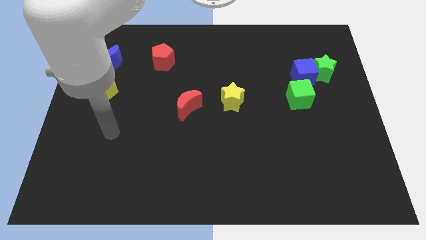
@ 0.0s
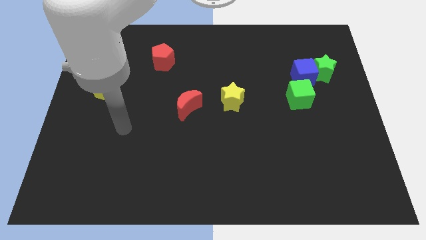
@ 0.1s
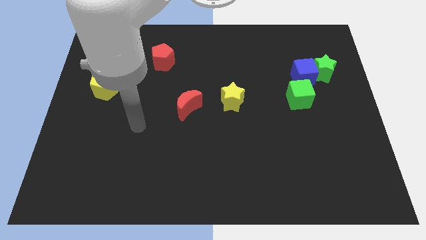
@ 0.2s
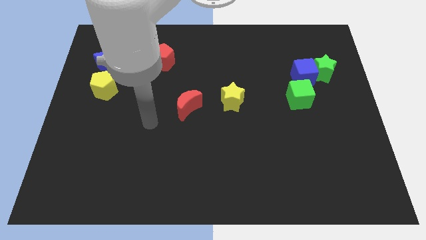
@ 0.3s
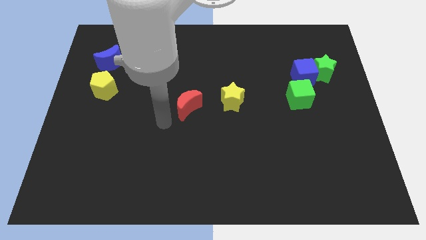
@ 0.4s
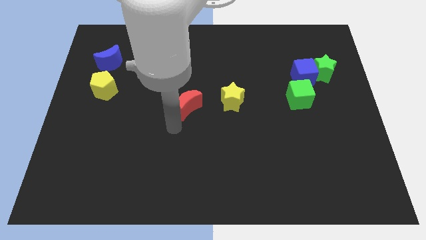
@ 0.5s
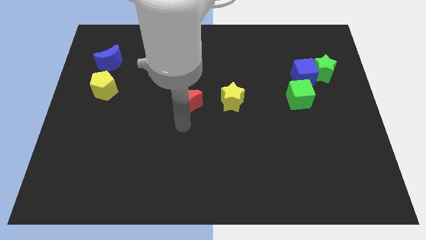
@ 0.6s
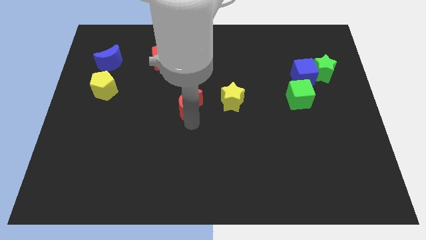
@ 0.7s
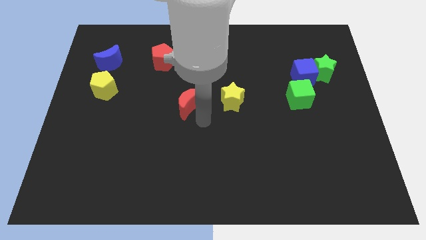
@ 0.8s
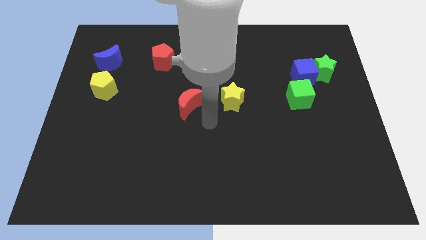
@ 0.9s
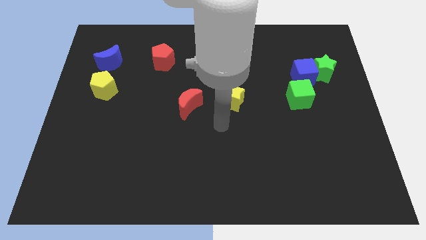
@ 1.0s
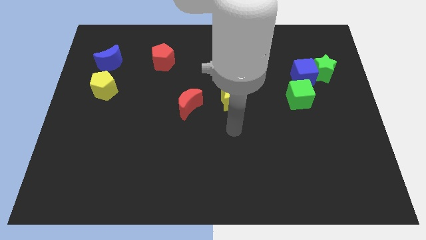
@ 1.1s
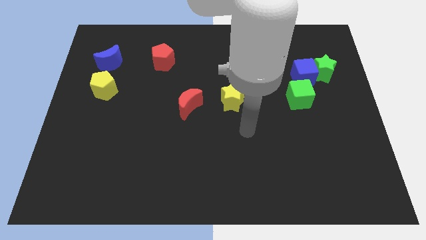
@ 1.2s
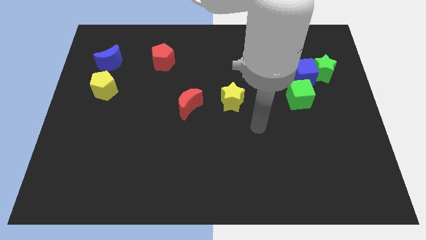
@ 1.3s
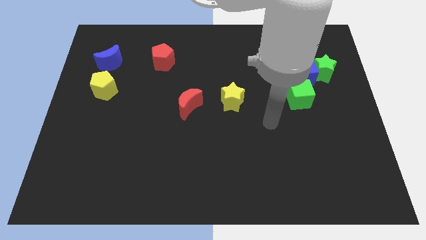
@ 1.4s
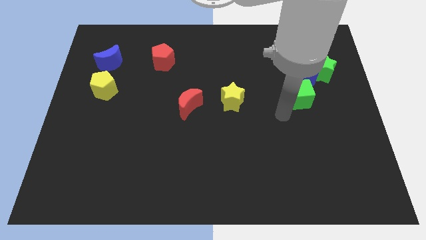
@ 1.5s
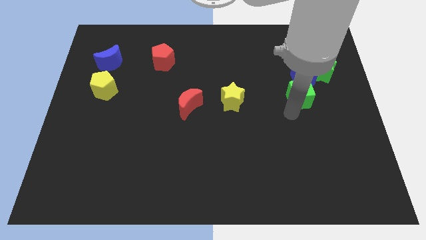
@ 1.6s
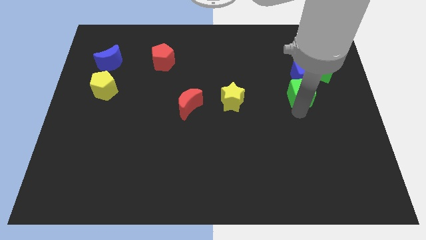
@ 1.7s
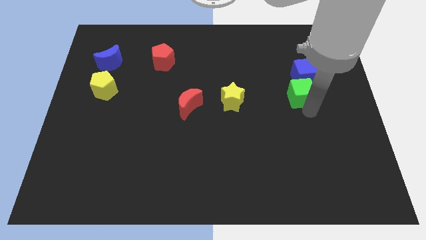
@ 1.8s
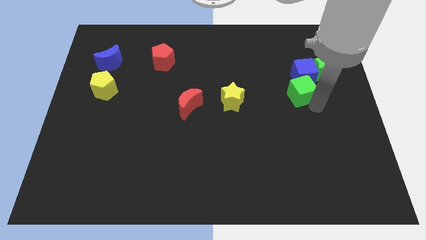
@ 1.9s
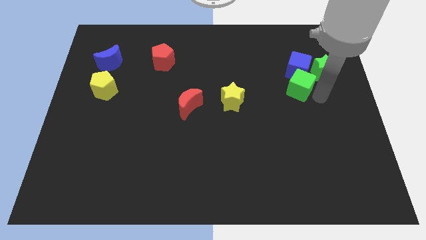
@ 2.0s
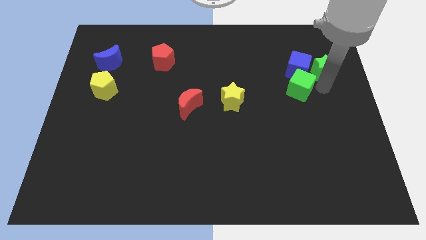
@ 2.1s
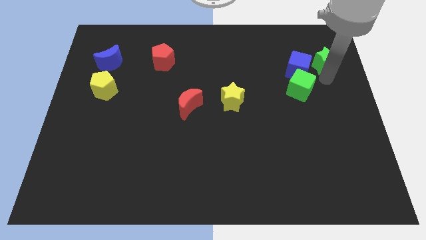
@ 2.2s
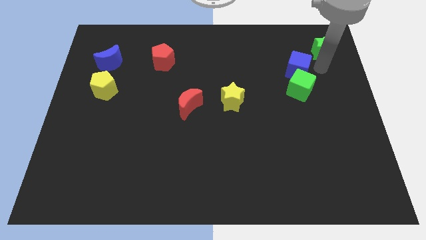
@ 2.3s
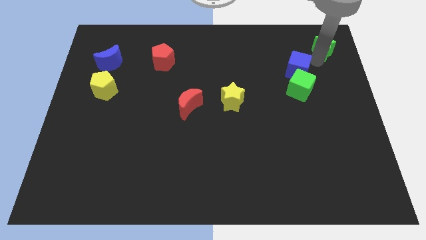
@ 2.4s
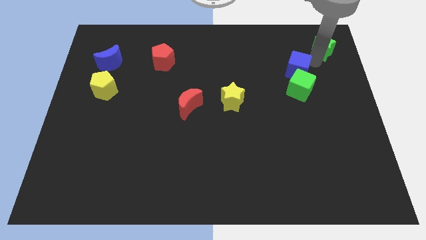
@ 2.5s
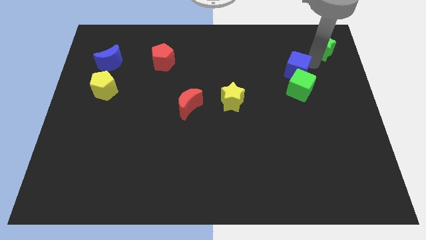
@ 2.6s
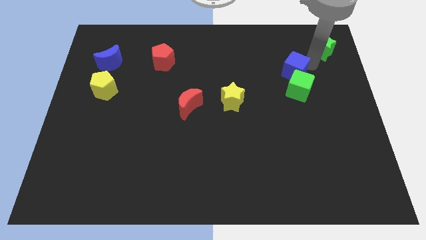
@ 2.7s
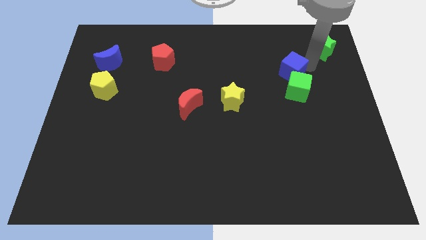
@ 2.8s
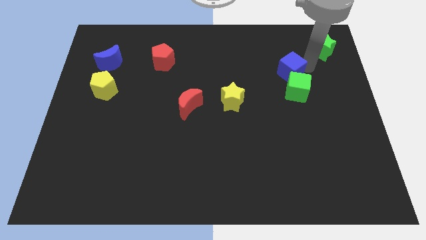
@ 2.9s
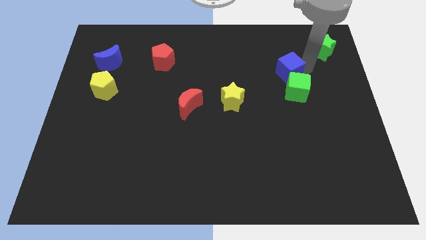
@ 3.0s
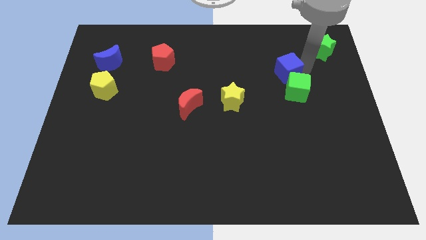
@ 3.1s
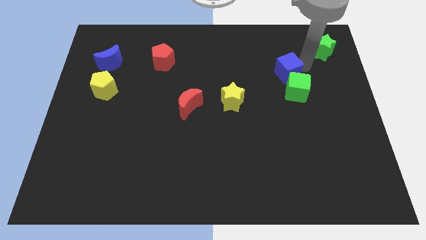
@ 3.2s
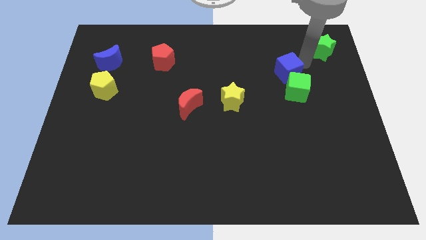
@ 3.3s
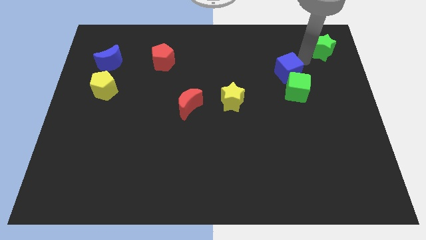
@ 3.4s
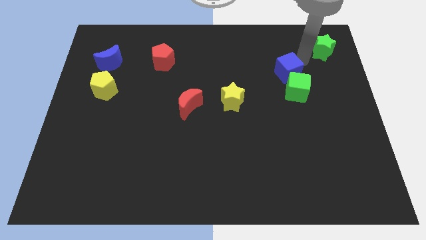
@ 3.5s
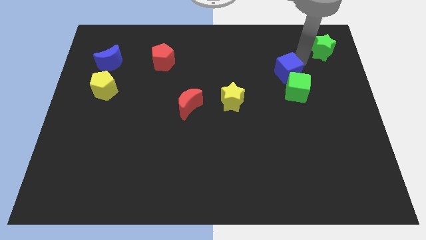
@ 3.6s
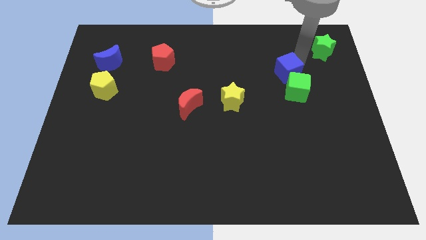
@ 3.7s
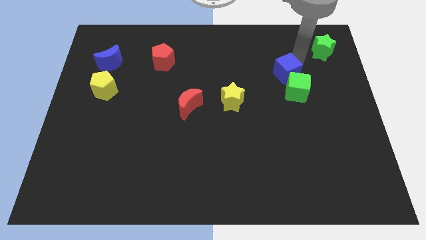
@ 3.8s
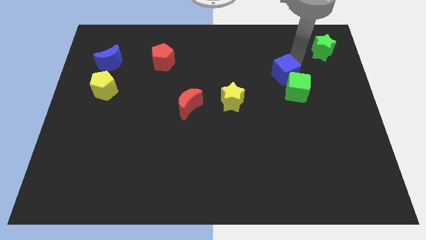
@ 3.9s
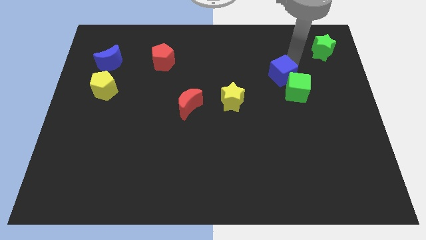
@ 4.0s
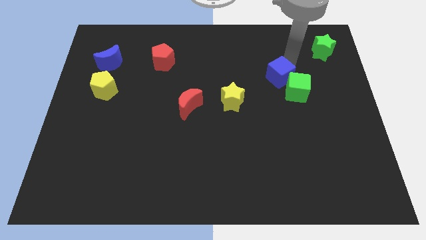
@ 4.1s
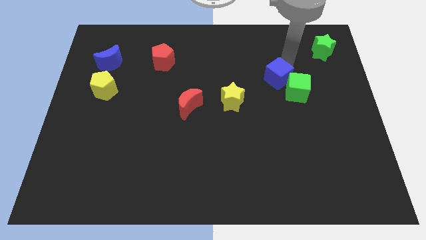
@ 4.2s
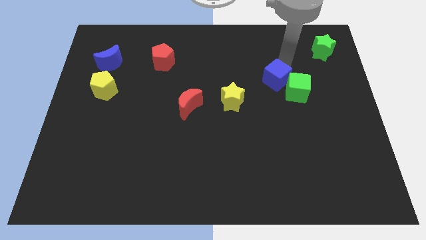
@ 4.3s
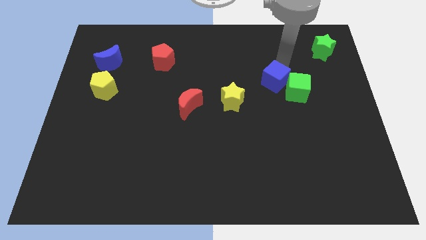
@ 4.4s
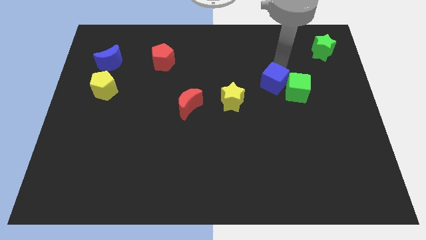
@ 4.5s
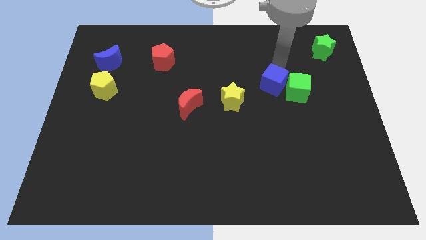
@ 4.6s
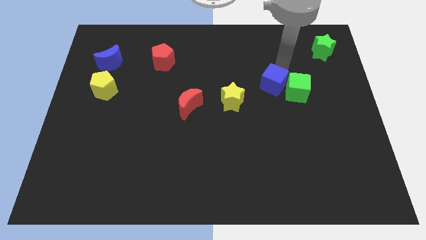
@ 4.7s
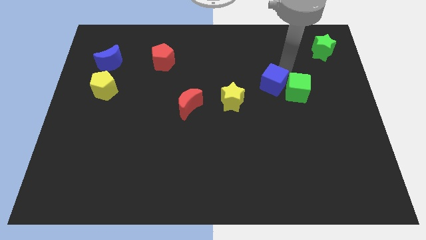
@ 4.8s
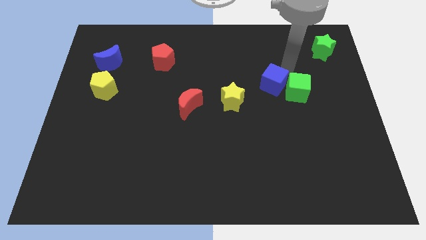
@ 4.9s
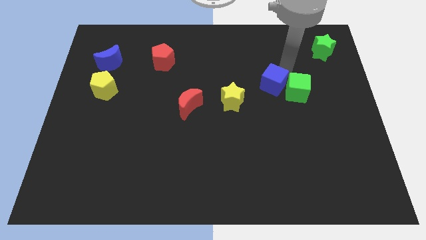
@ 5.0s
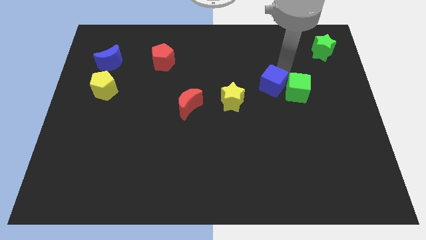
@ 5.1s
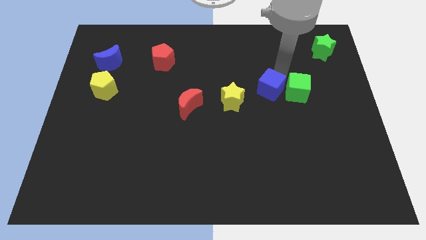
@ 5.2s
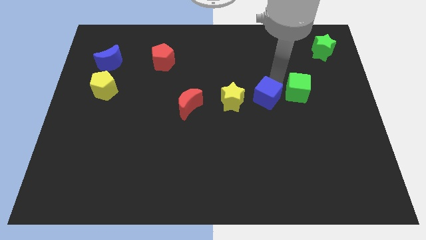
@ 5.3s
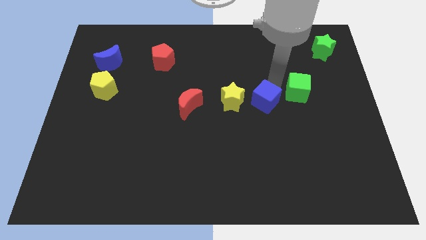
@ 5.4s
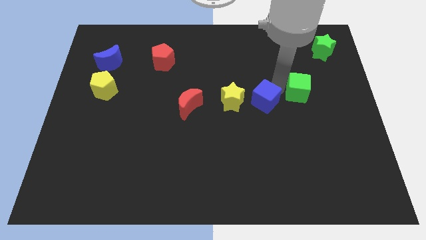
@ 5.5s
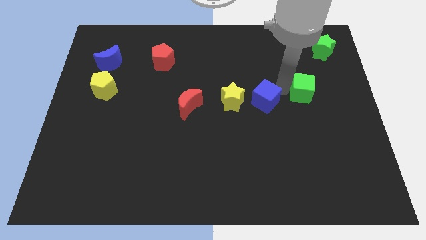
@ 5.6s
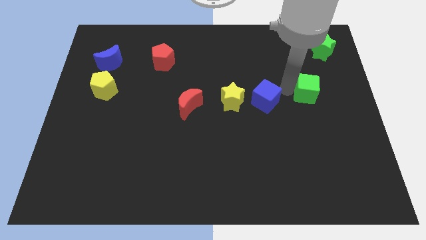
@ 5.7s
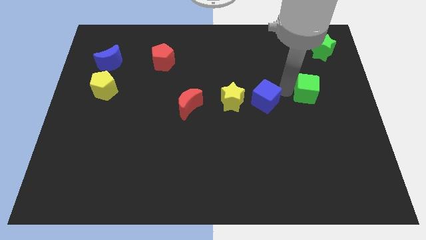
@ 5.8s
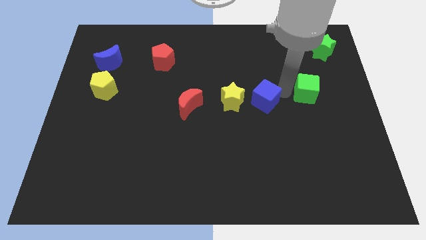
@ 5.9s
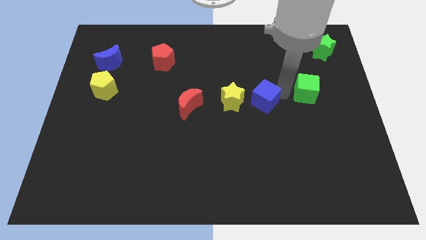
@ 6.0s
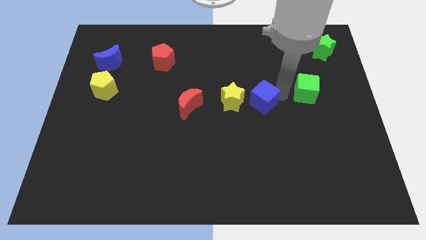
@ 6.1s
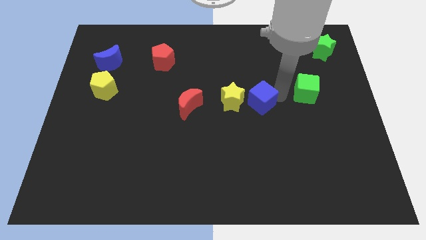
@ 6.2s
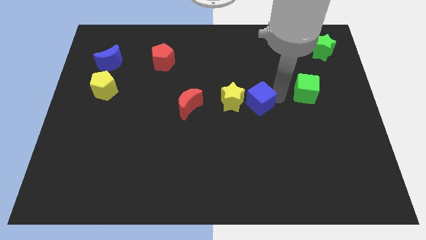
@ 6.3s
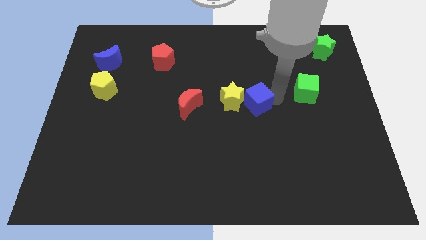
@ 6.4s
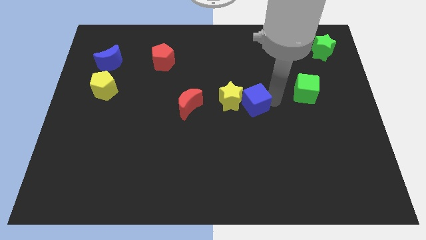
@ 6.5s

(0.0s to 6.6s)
move the blue cube right of the red moon
